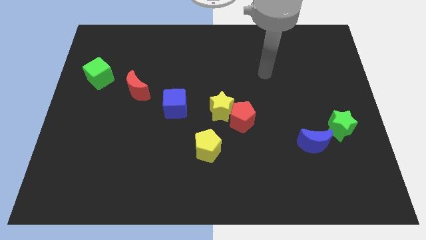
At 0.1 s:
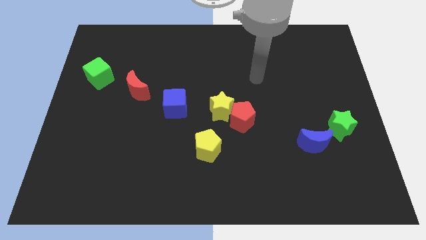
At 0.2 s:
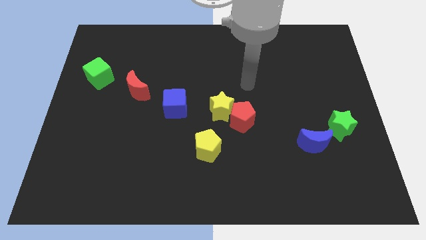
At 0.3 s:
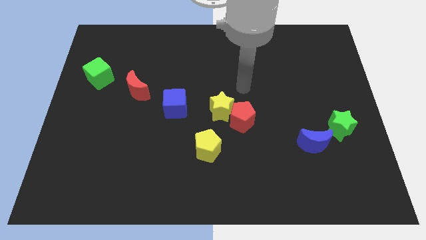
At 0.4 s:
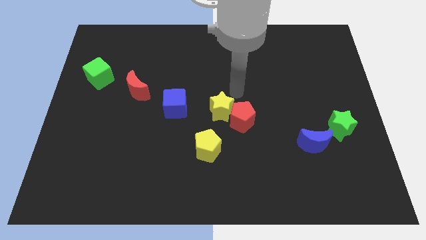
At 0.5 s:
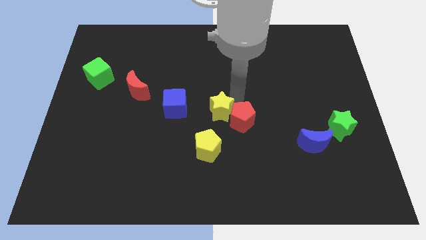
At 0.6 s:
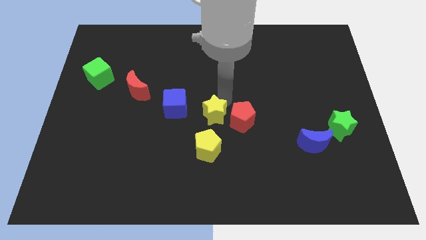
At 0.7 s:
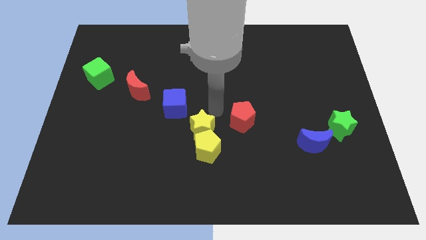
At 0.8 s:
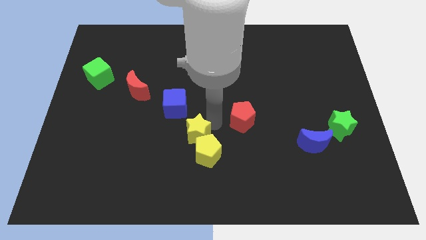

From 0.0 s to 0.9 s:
pull the red pentagon apart from the yellow star

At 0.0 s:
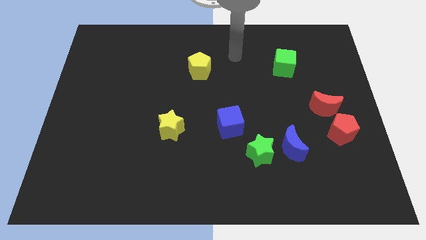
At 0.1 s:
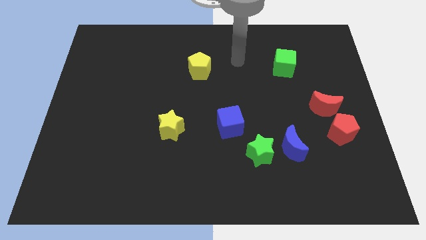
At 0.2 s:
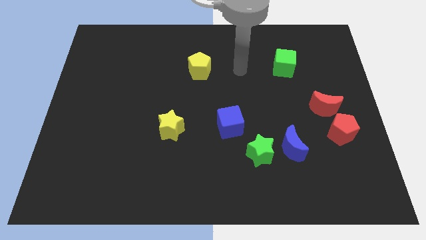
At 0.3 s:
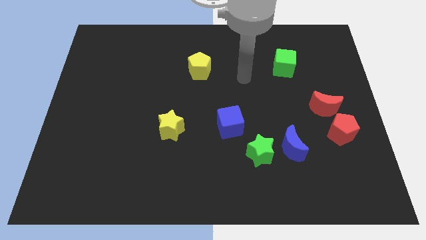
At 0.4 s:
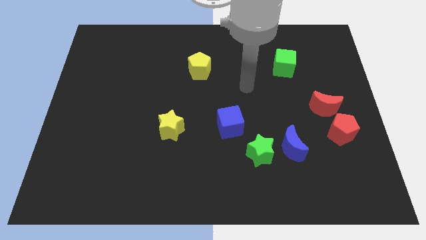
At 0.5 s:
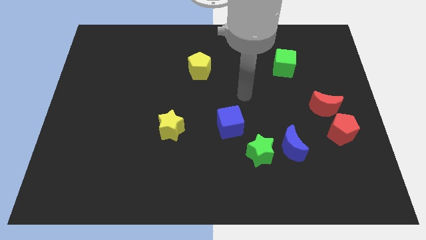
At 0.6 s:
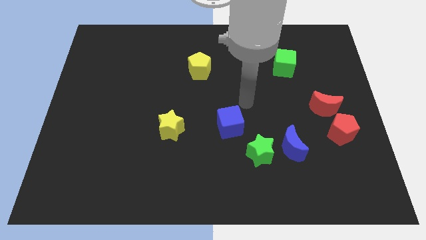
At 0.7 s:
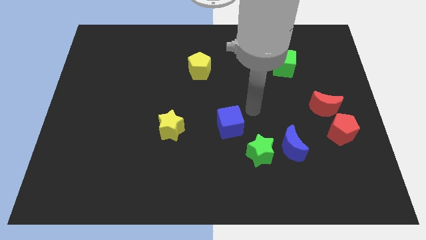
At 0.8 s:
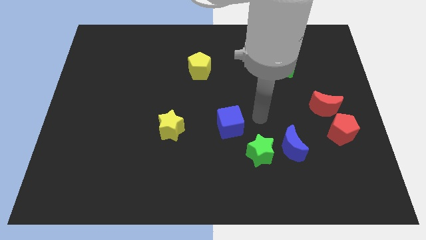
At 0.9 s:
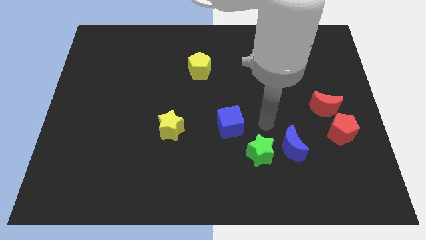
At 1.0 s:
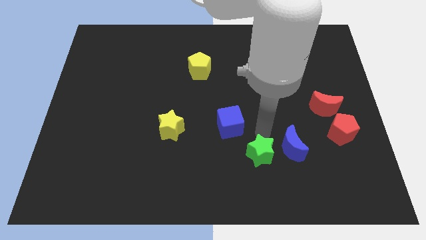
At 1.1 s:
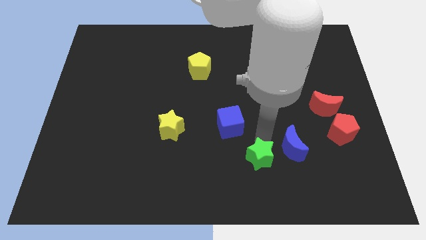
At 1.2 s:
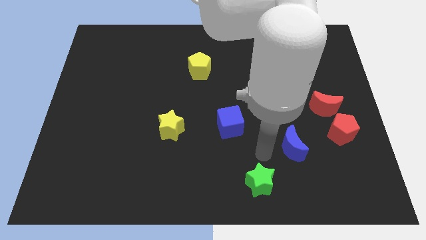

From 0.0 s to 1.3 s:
pull the blue moon apart from the green star

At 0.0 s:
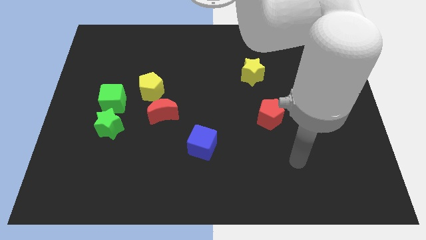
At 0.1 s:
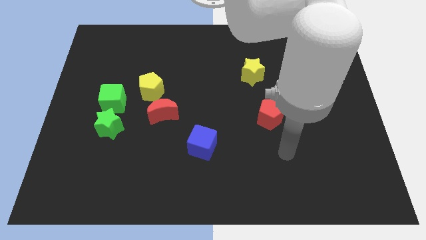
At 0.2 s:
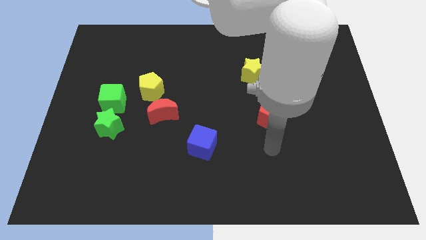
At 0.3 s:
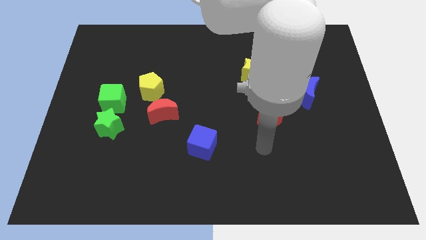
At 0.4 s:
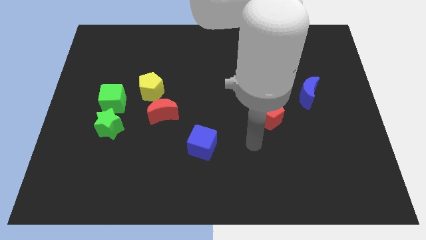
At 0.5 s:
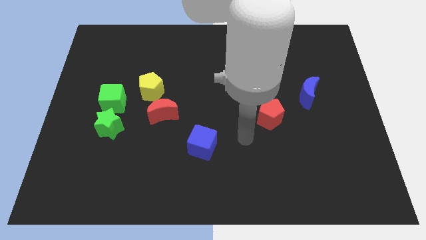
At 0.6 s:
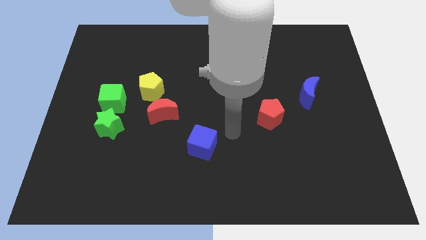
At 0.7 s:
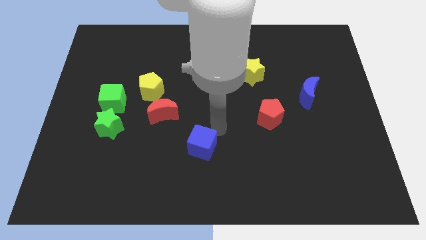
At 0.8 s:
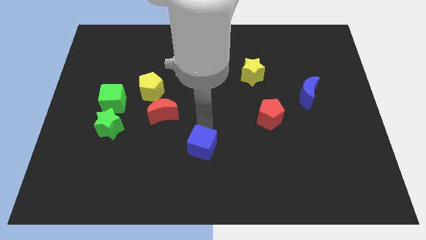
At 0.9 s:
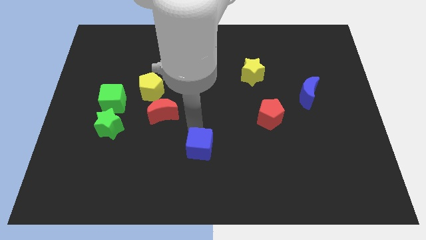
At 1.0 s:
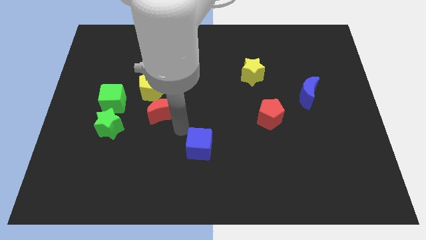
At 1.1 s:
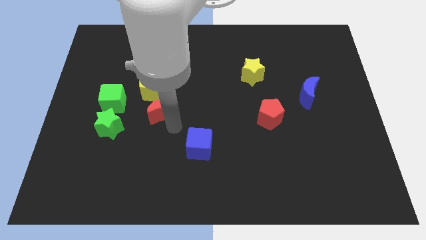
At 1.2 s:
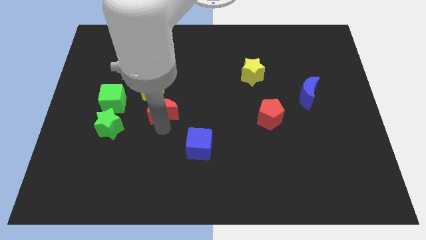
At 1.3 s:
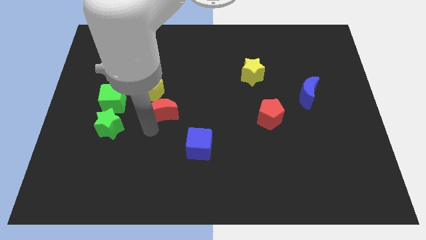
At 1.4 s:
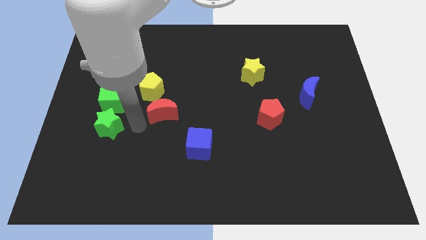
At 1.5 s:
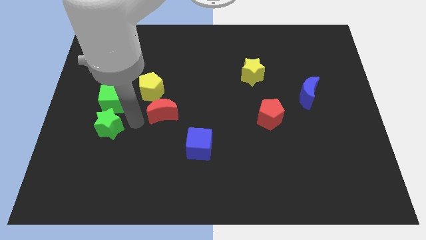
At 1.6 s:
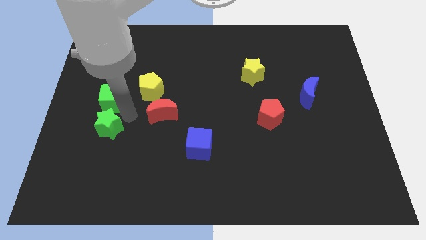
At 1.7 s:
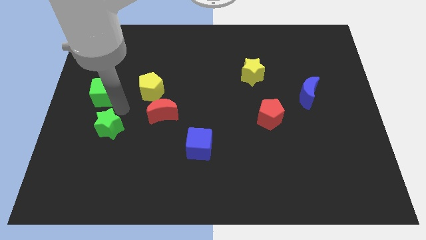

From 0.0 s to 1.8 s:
pull the green star apart from the green cube

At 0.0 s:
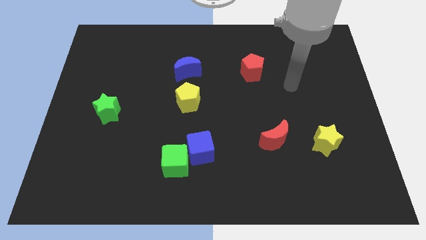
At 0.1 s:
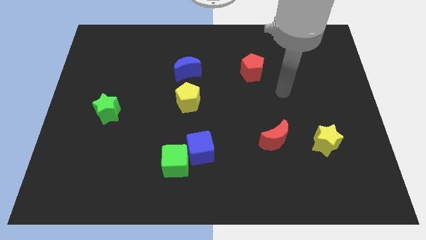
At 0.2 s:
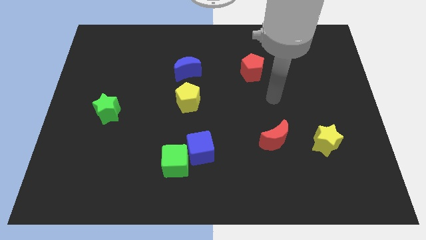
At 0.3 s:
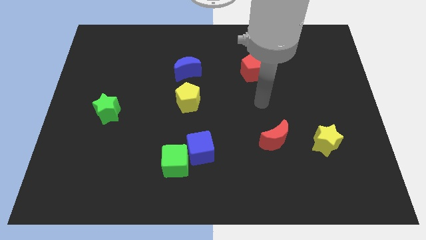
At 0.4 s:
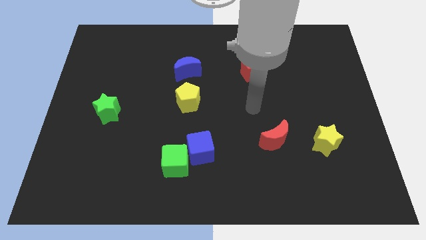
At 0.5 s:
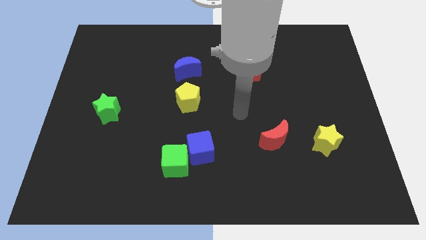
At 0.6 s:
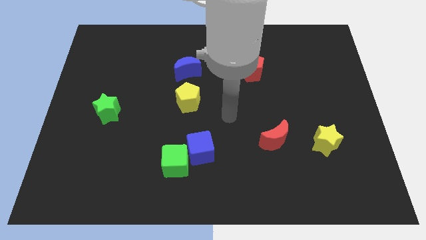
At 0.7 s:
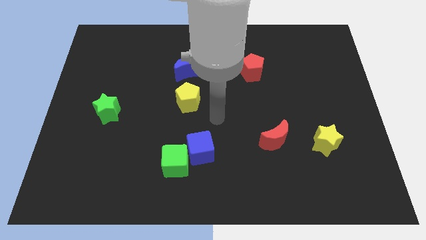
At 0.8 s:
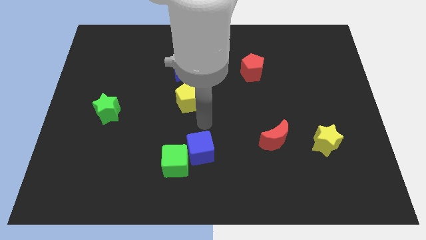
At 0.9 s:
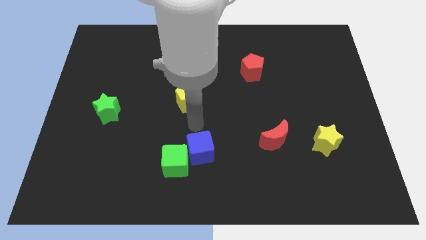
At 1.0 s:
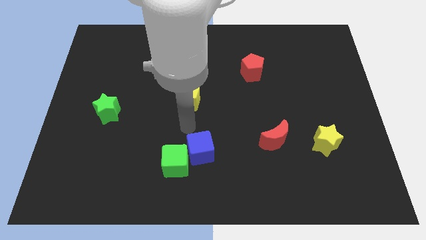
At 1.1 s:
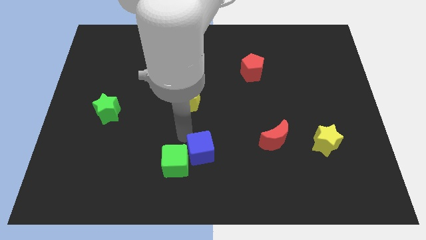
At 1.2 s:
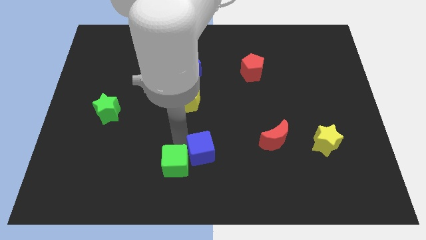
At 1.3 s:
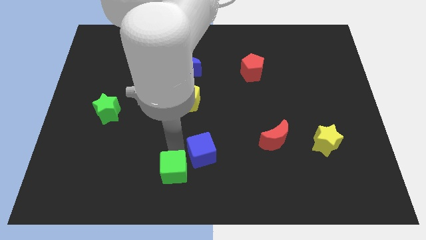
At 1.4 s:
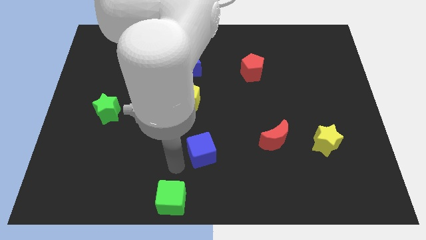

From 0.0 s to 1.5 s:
separate the blue cube from the green cube

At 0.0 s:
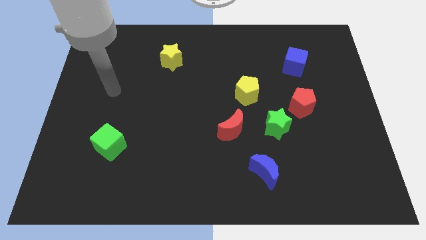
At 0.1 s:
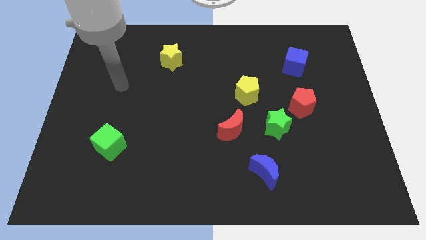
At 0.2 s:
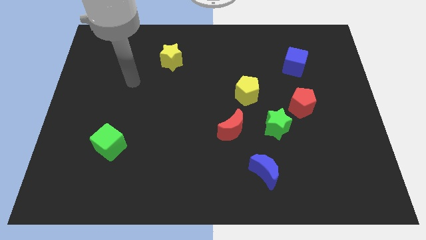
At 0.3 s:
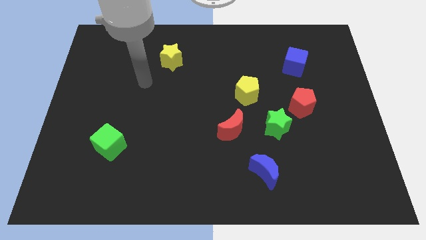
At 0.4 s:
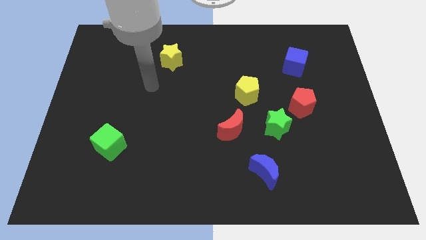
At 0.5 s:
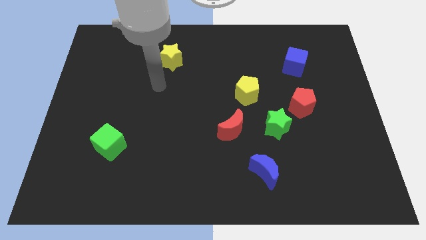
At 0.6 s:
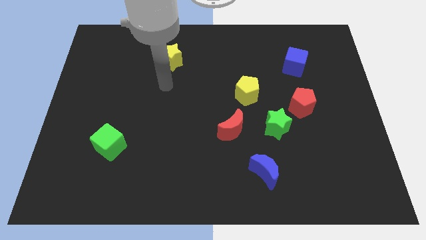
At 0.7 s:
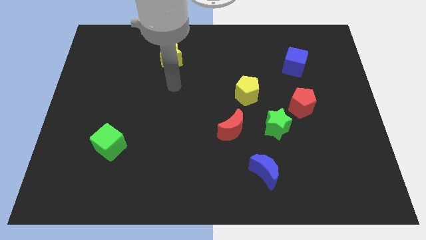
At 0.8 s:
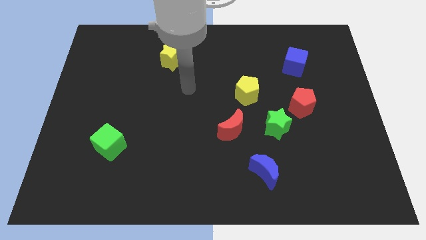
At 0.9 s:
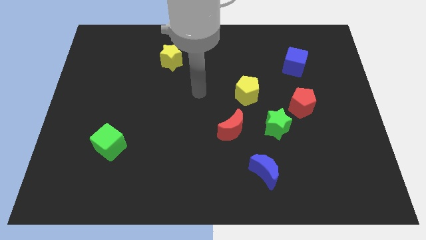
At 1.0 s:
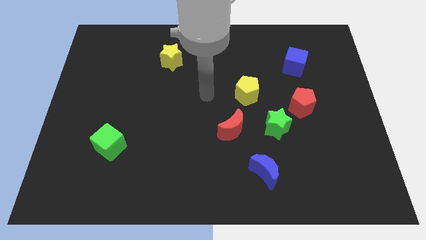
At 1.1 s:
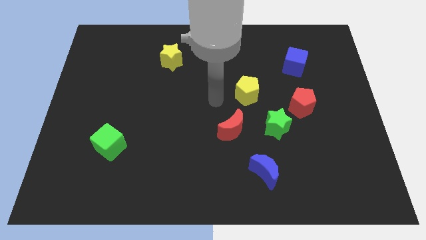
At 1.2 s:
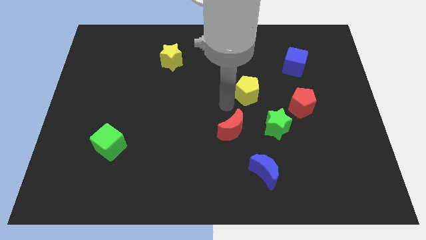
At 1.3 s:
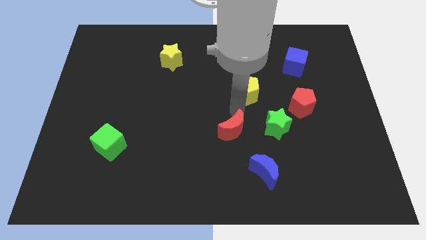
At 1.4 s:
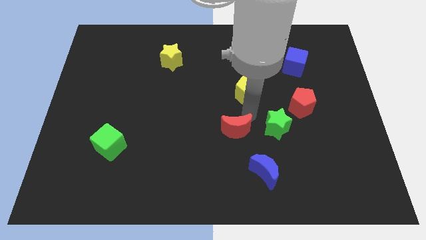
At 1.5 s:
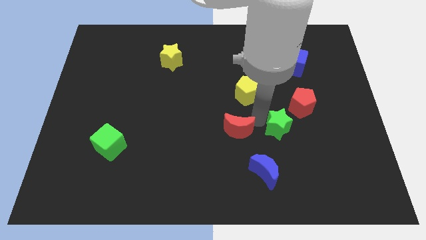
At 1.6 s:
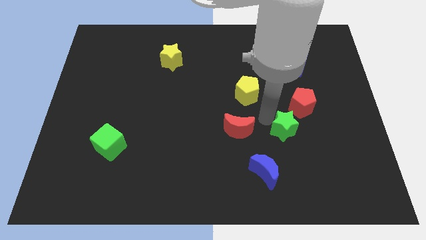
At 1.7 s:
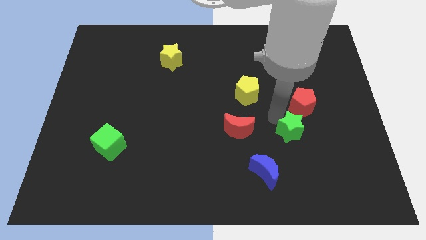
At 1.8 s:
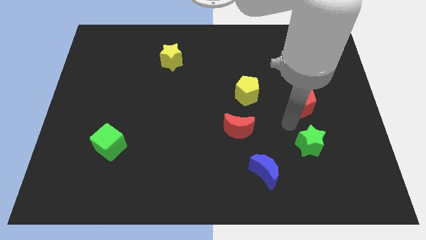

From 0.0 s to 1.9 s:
pull the red pentagon apart from the green star

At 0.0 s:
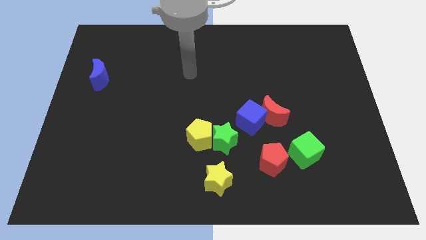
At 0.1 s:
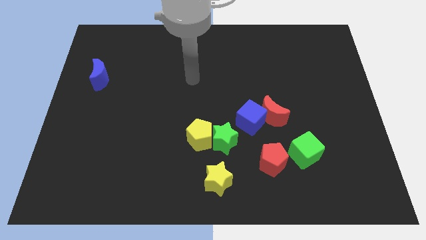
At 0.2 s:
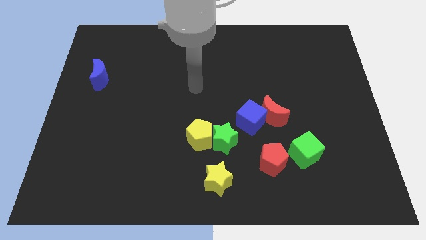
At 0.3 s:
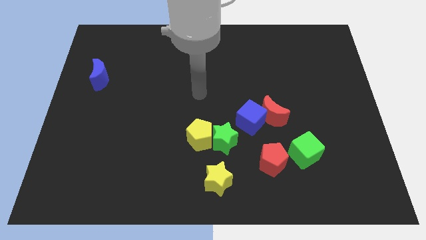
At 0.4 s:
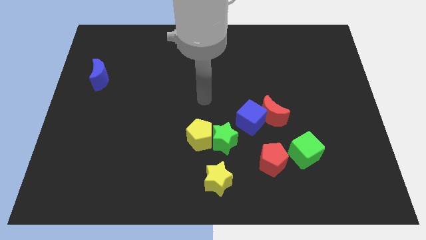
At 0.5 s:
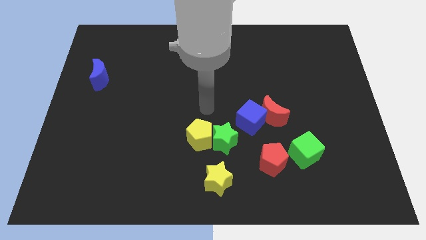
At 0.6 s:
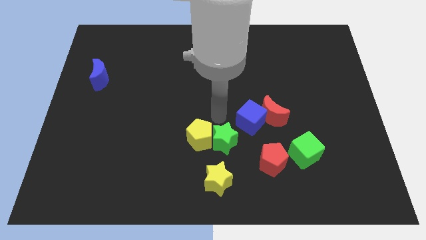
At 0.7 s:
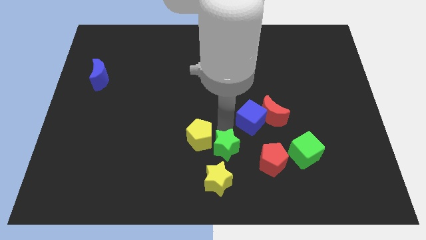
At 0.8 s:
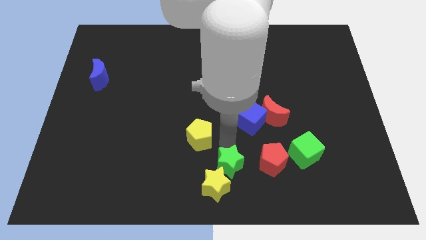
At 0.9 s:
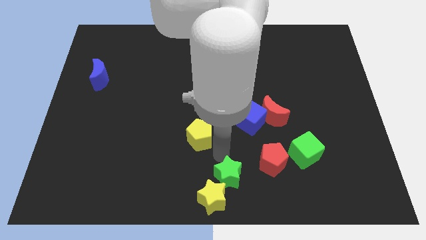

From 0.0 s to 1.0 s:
move the yellow pentagon away from the green star

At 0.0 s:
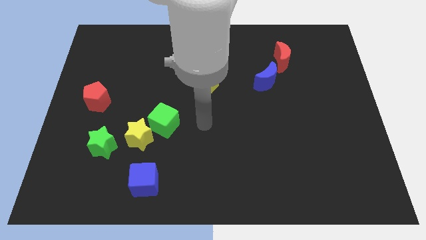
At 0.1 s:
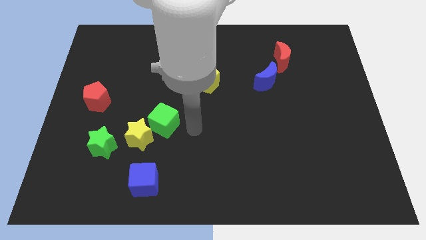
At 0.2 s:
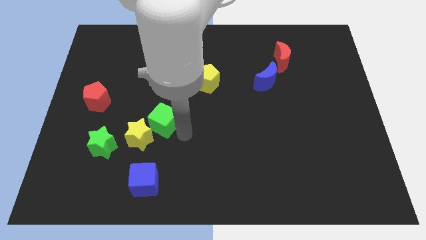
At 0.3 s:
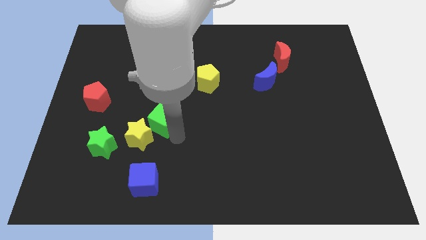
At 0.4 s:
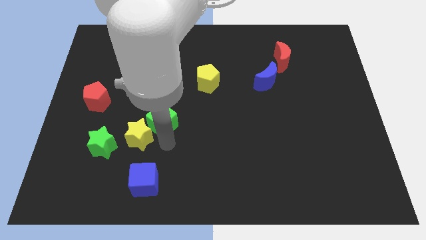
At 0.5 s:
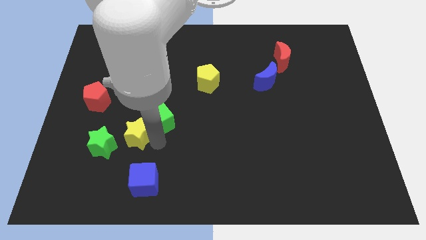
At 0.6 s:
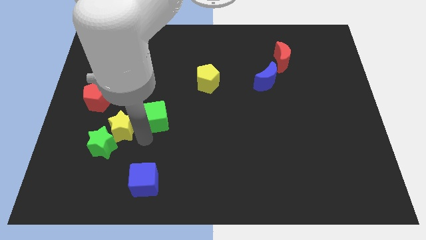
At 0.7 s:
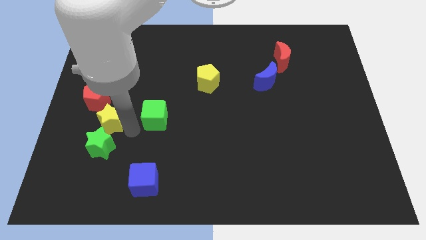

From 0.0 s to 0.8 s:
move the green cube away from the yellow star
